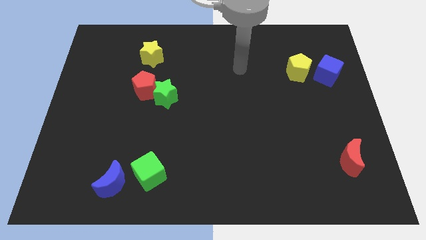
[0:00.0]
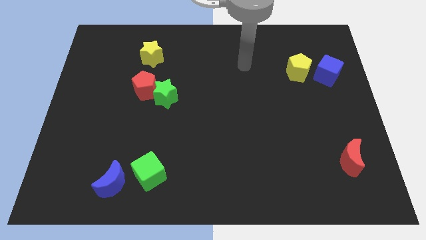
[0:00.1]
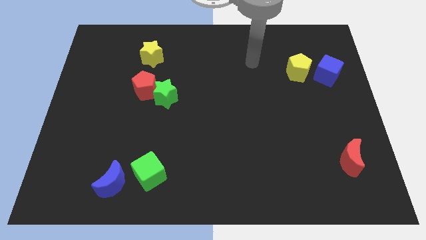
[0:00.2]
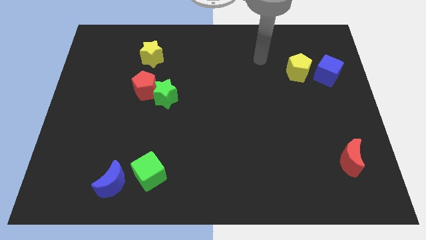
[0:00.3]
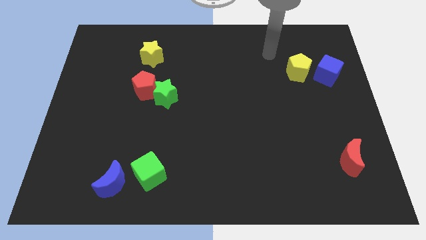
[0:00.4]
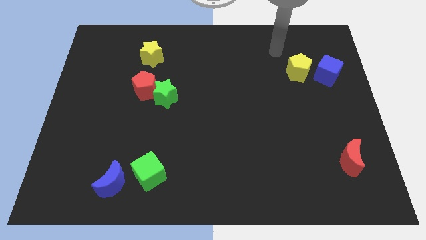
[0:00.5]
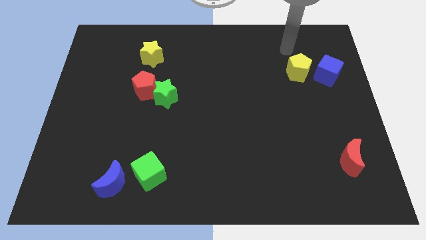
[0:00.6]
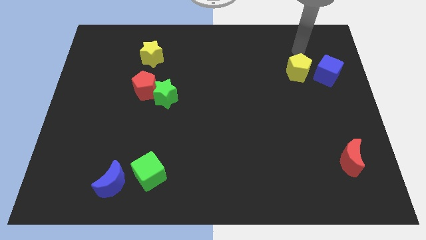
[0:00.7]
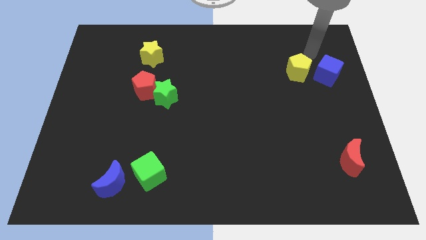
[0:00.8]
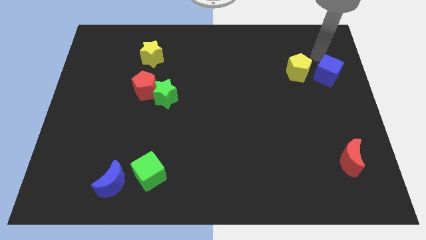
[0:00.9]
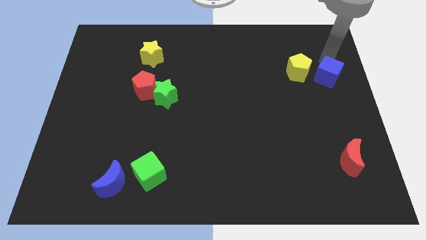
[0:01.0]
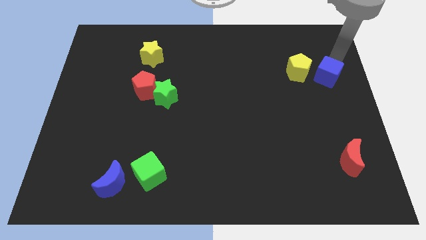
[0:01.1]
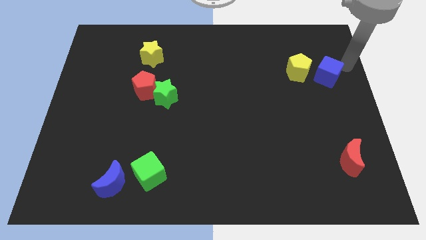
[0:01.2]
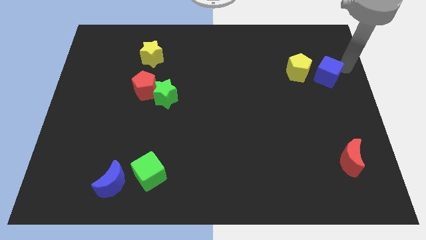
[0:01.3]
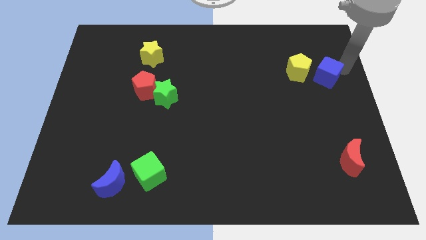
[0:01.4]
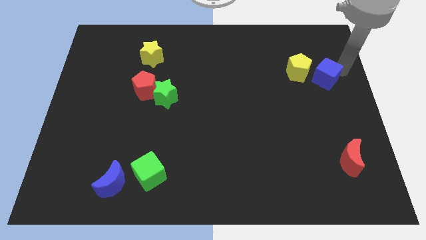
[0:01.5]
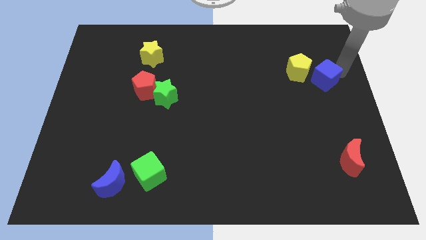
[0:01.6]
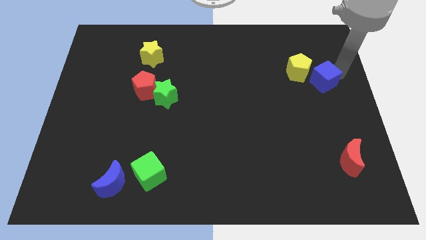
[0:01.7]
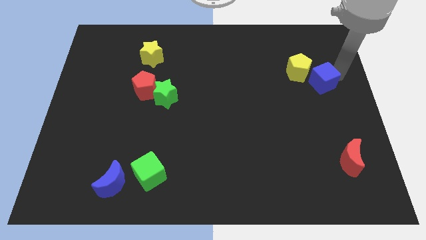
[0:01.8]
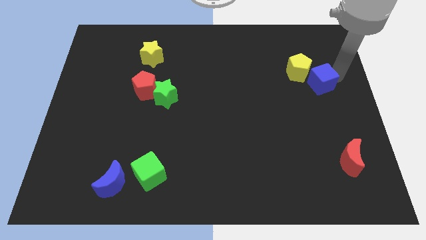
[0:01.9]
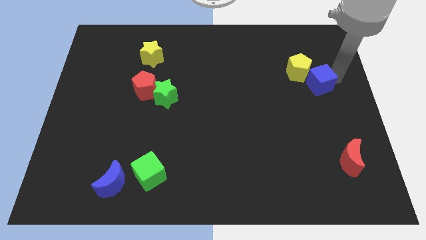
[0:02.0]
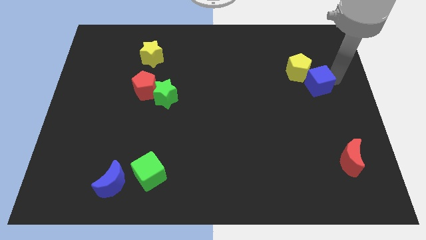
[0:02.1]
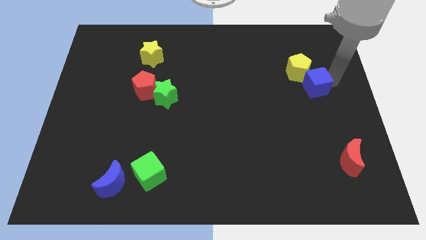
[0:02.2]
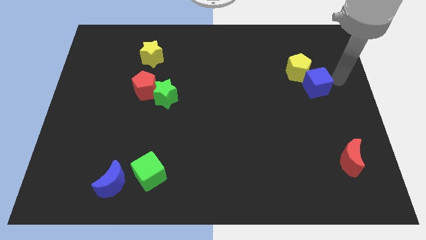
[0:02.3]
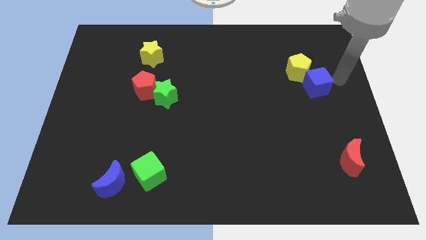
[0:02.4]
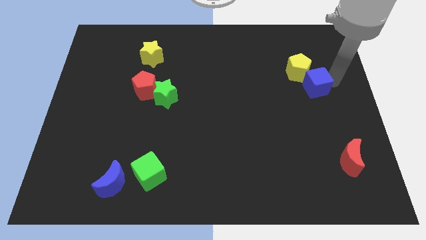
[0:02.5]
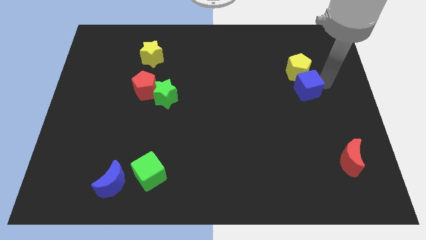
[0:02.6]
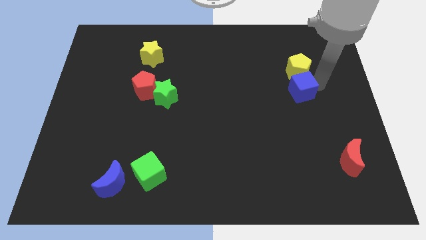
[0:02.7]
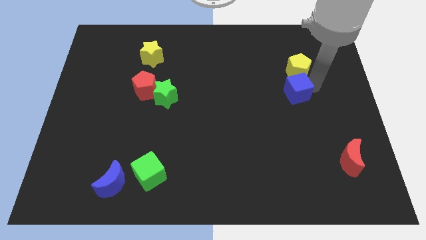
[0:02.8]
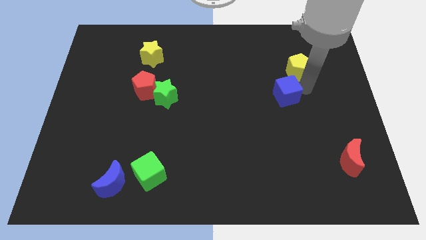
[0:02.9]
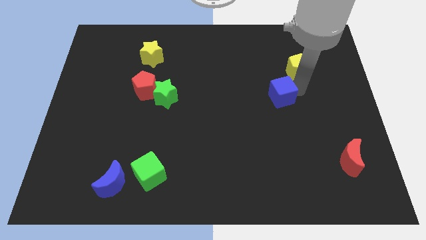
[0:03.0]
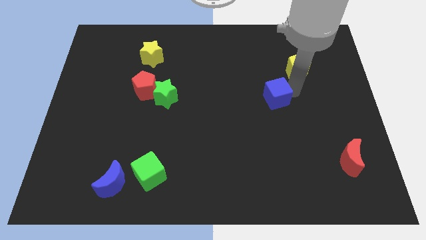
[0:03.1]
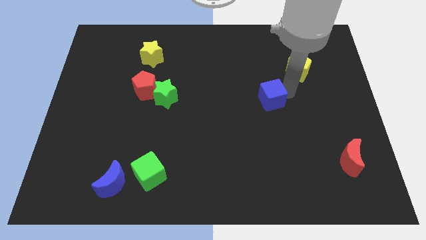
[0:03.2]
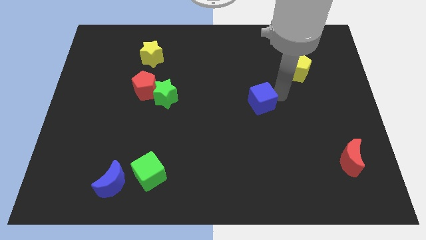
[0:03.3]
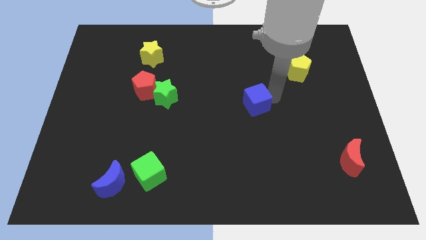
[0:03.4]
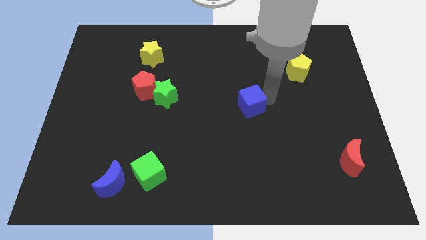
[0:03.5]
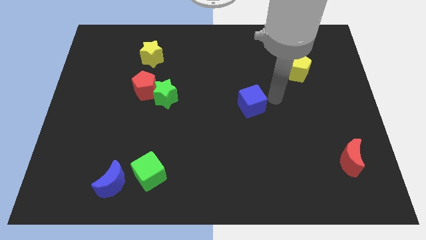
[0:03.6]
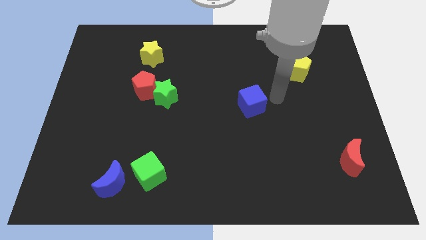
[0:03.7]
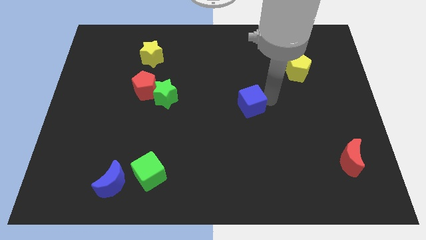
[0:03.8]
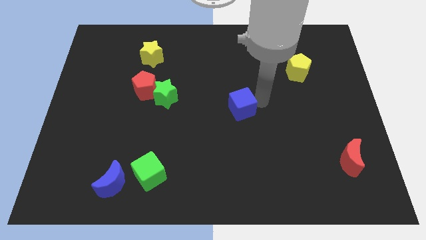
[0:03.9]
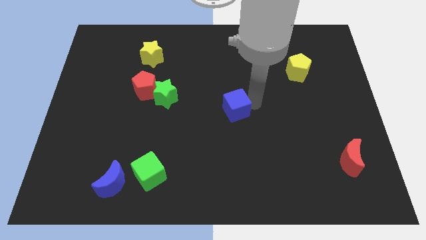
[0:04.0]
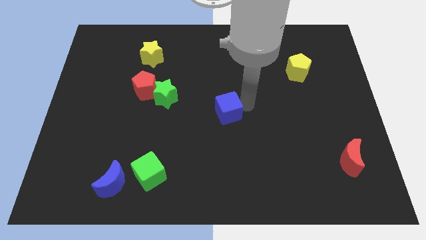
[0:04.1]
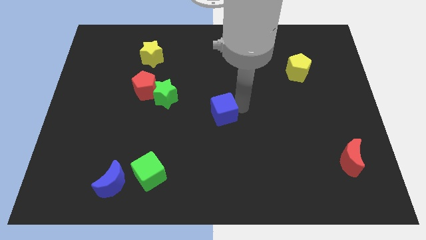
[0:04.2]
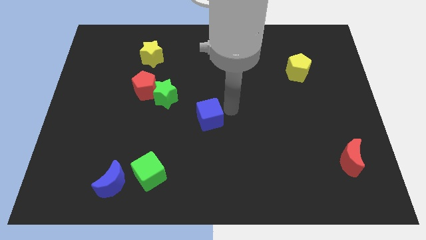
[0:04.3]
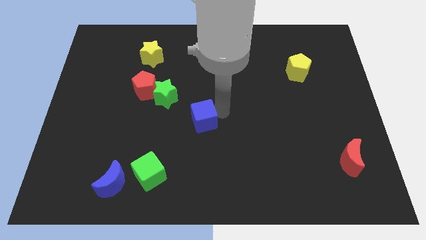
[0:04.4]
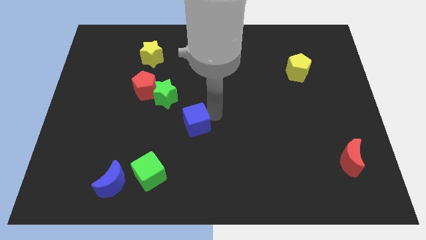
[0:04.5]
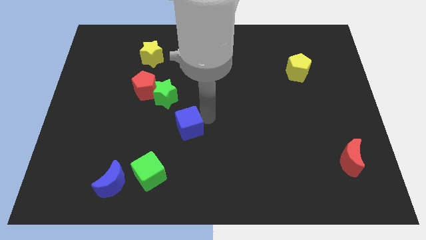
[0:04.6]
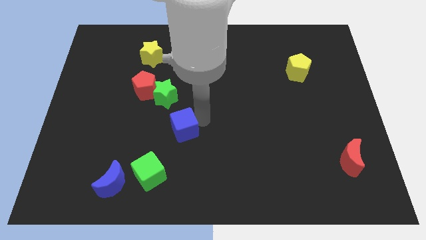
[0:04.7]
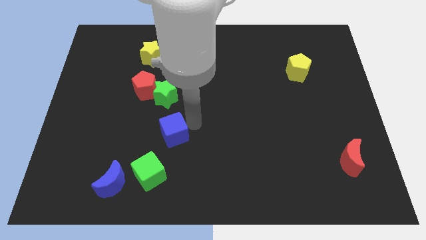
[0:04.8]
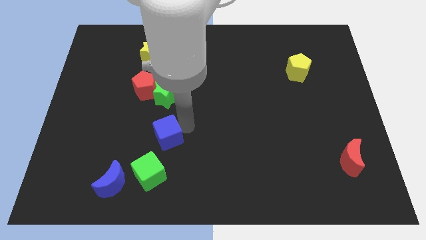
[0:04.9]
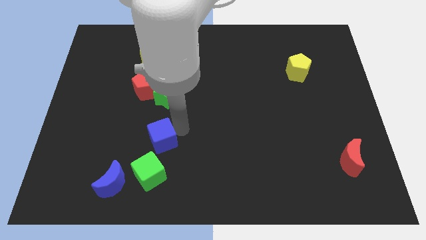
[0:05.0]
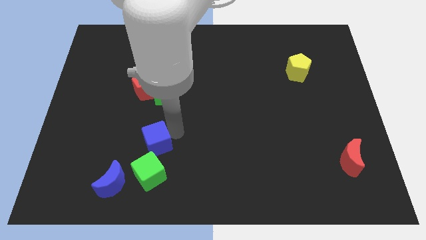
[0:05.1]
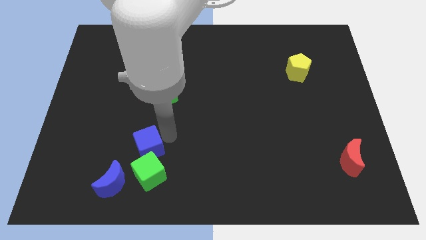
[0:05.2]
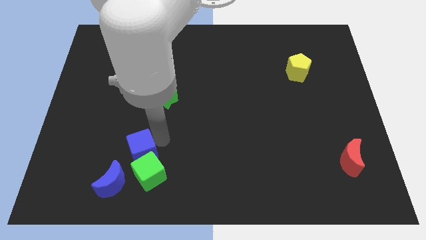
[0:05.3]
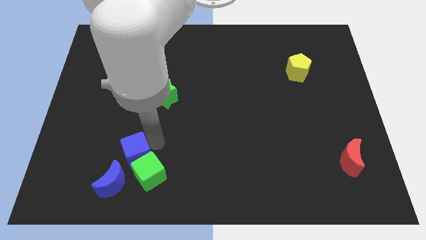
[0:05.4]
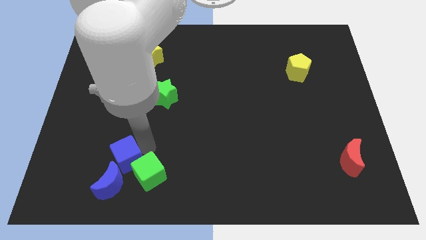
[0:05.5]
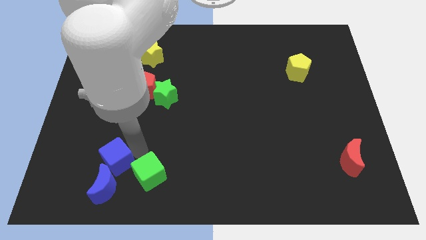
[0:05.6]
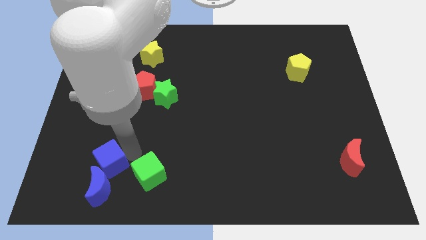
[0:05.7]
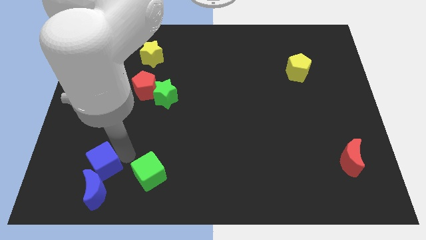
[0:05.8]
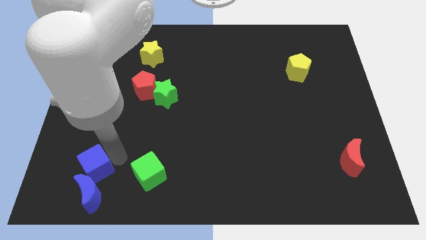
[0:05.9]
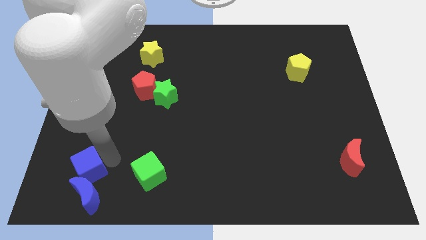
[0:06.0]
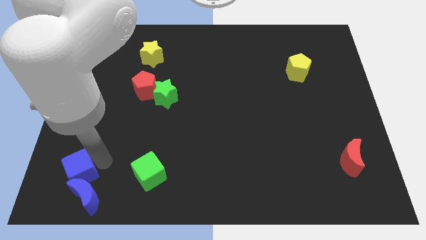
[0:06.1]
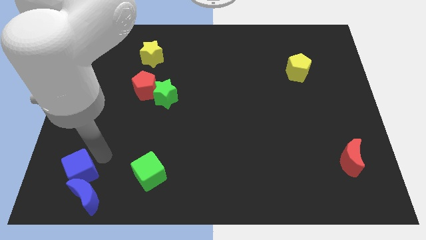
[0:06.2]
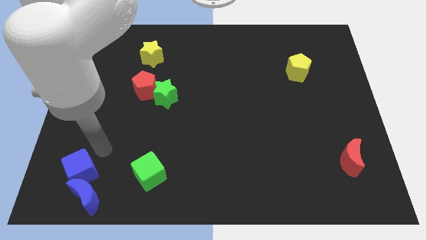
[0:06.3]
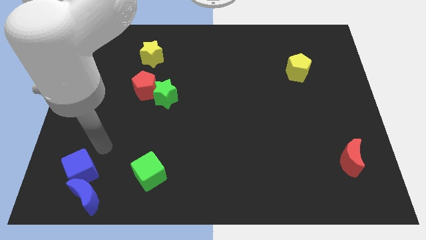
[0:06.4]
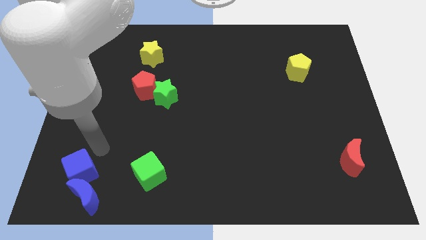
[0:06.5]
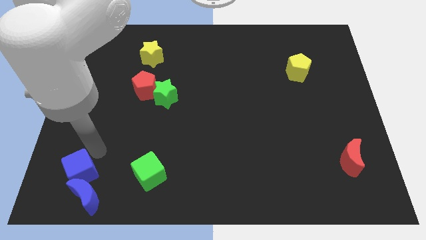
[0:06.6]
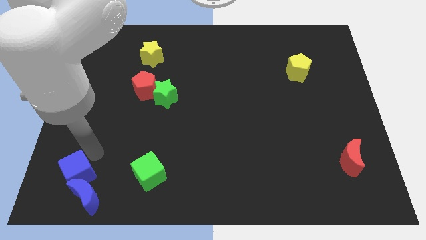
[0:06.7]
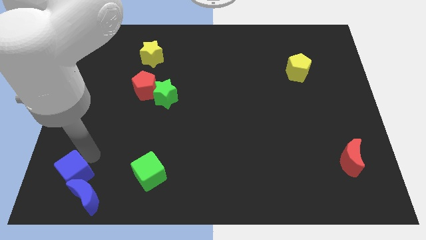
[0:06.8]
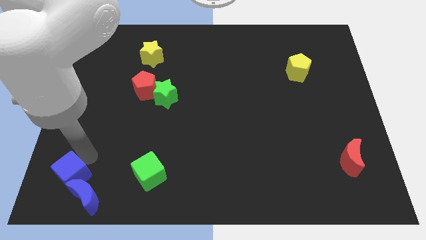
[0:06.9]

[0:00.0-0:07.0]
move the blue cube to the bottom left corner
